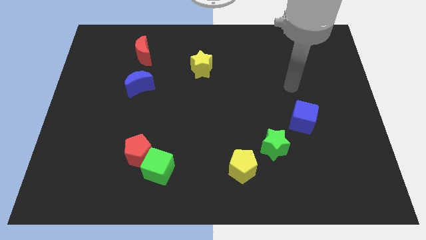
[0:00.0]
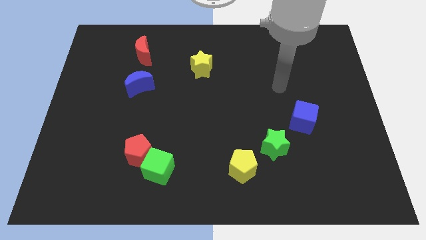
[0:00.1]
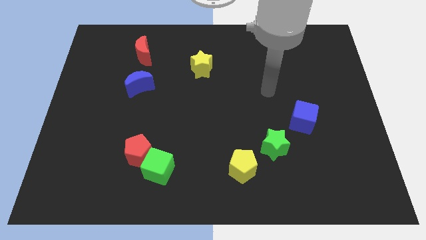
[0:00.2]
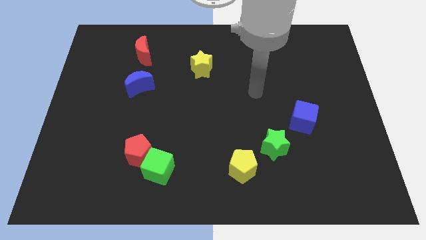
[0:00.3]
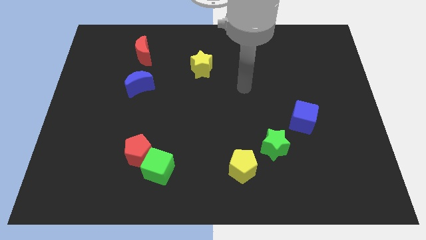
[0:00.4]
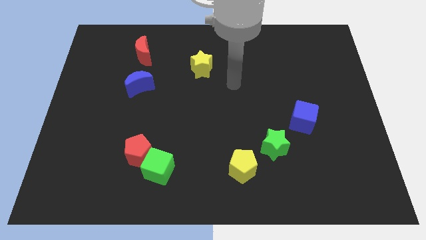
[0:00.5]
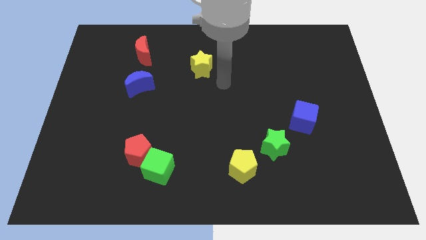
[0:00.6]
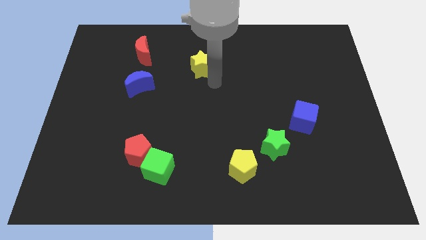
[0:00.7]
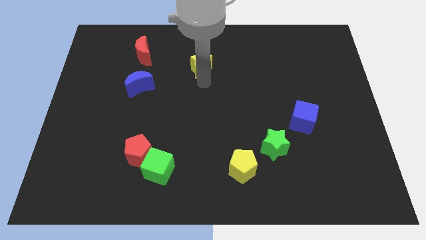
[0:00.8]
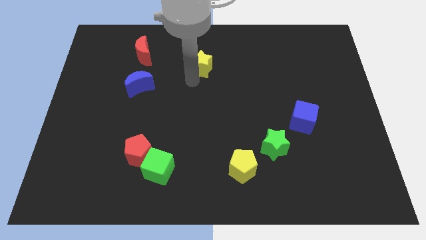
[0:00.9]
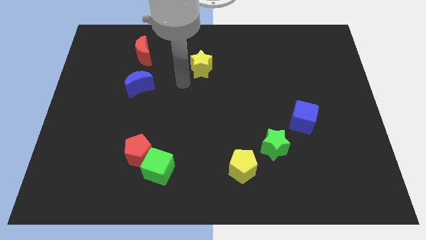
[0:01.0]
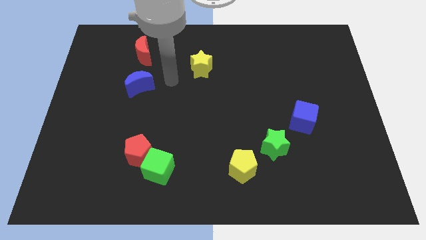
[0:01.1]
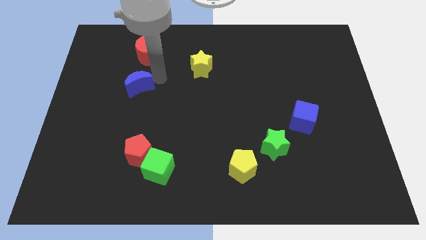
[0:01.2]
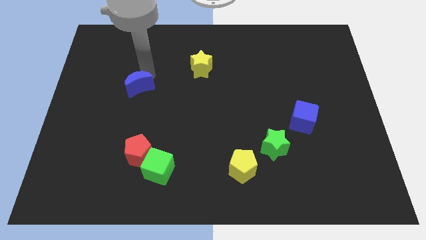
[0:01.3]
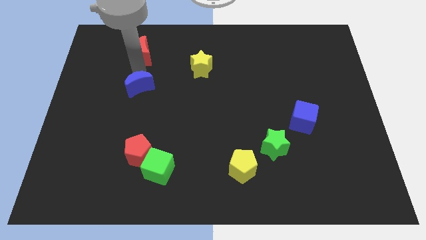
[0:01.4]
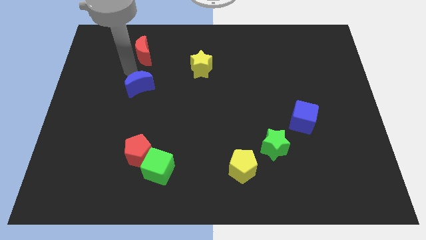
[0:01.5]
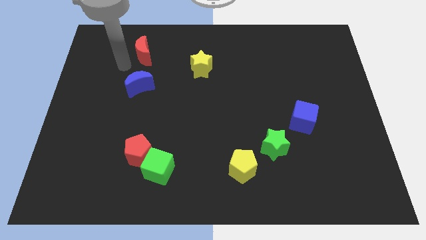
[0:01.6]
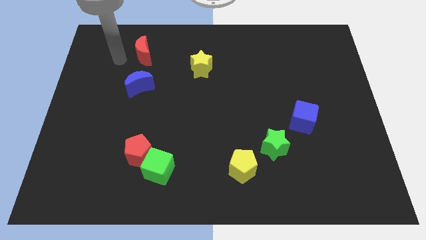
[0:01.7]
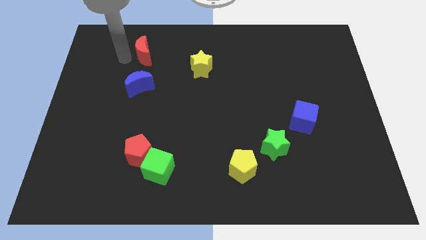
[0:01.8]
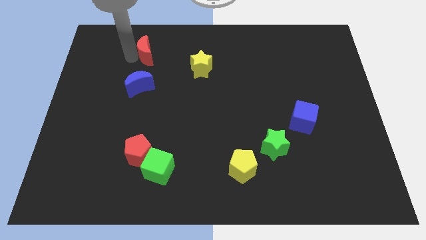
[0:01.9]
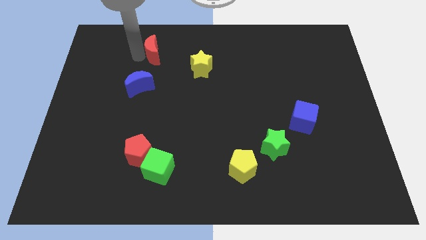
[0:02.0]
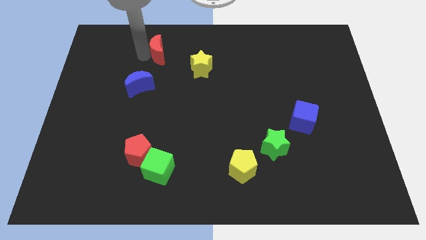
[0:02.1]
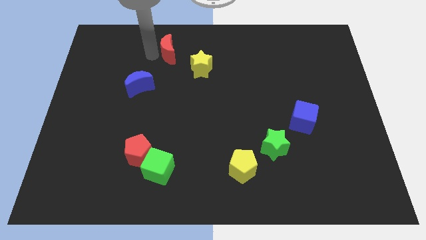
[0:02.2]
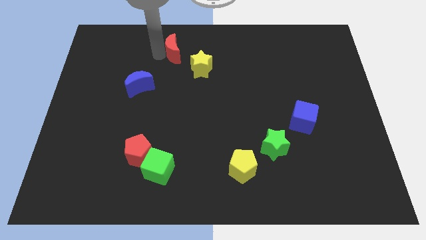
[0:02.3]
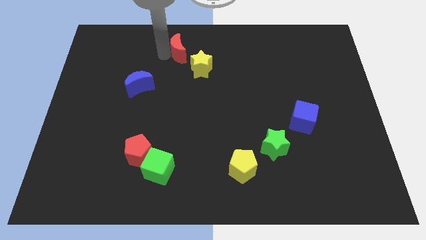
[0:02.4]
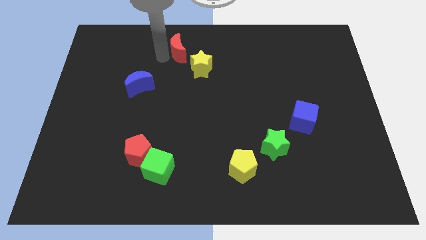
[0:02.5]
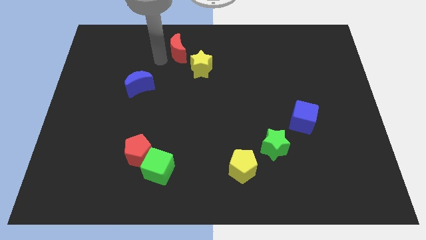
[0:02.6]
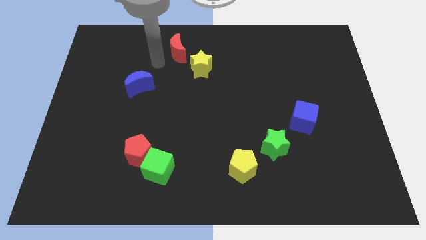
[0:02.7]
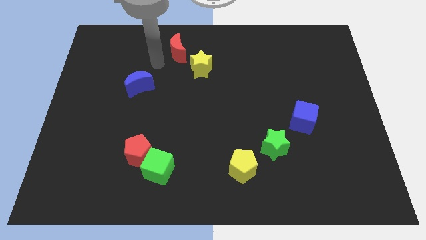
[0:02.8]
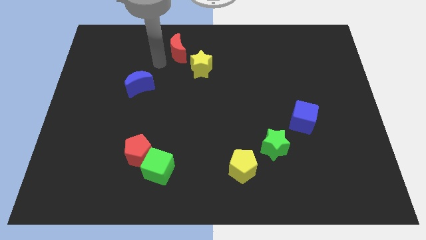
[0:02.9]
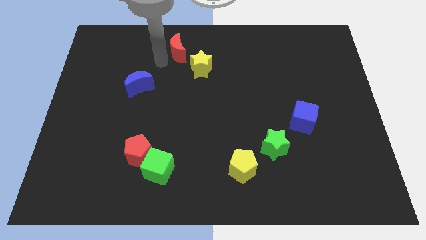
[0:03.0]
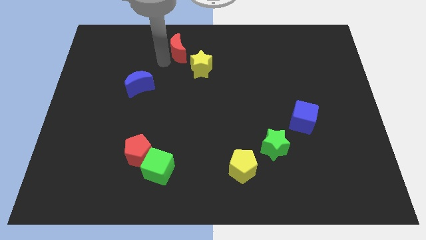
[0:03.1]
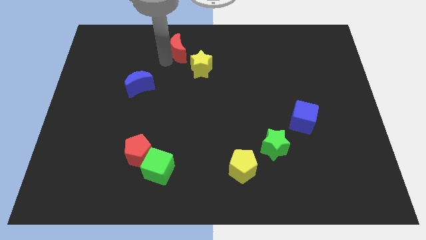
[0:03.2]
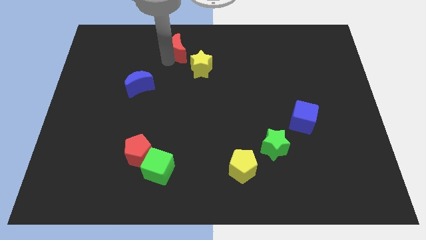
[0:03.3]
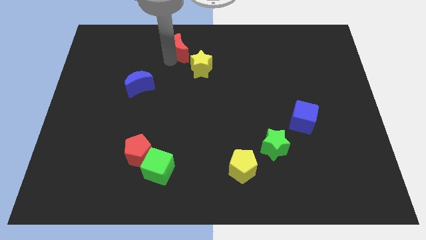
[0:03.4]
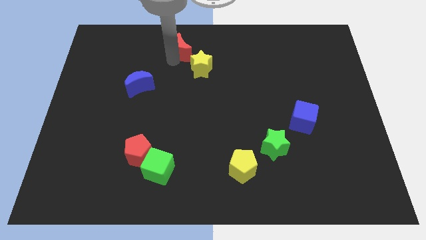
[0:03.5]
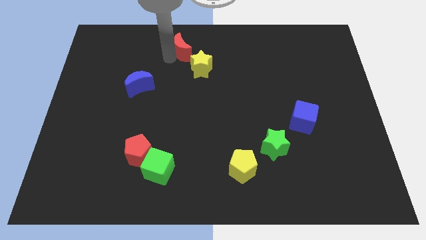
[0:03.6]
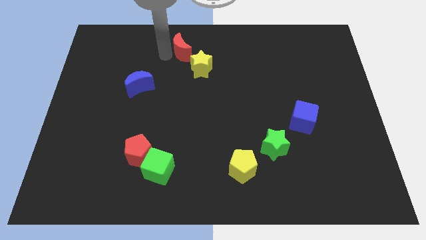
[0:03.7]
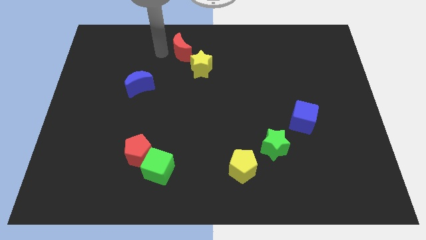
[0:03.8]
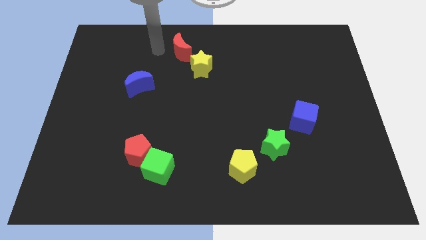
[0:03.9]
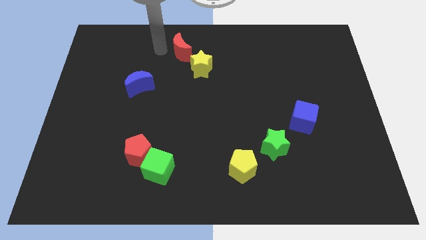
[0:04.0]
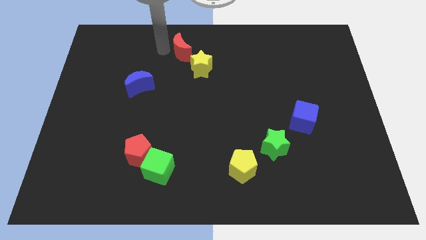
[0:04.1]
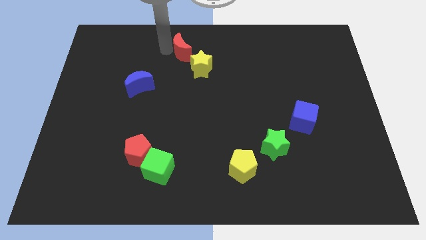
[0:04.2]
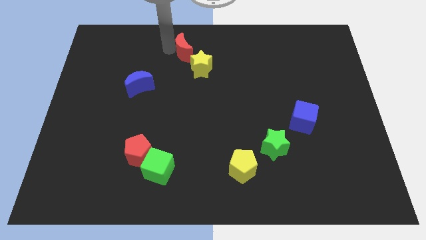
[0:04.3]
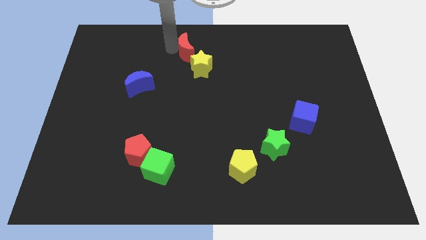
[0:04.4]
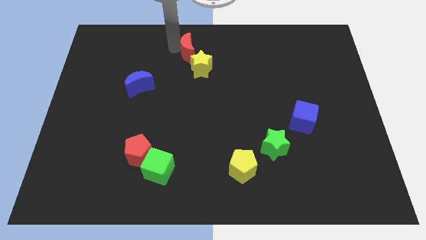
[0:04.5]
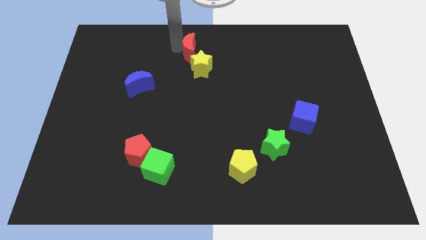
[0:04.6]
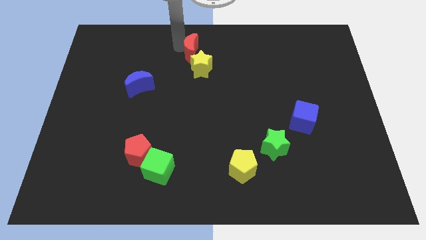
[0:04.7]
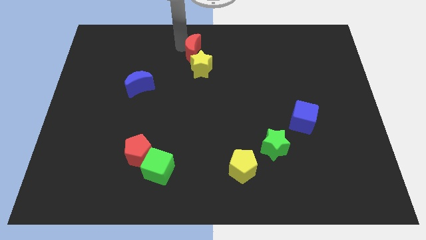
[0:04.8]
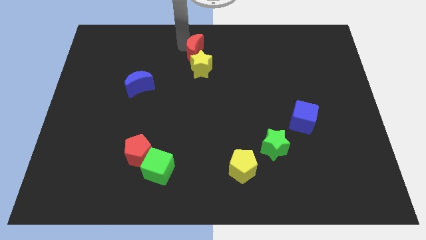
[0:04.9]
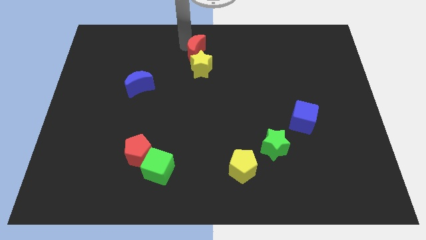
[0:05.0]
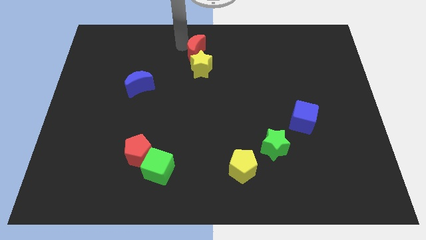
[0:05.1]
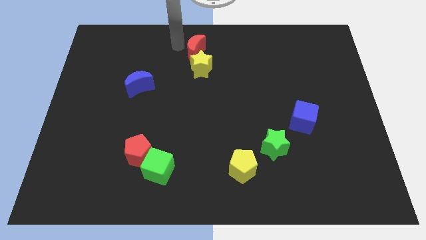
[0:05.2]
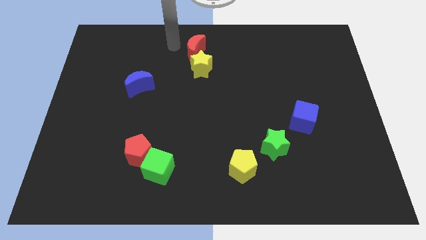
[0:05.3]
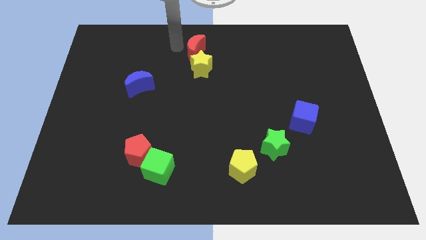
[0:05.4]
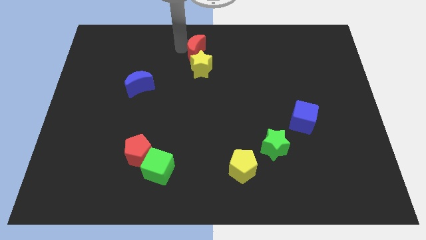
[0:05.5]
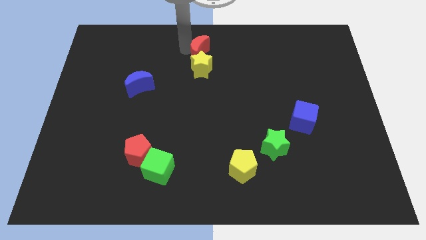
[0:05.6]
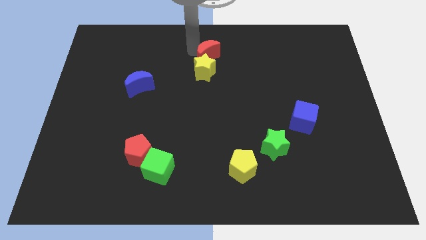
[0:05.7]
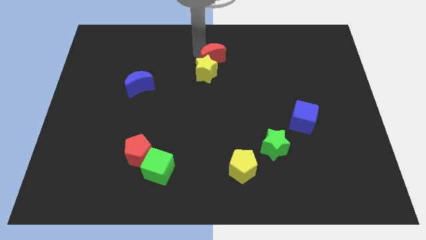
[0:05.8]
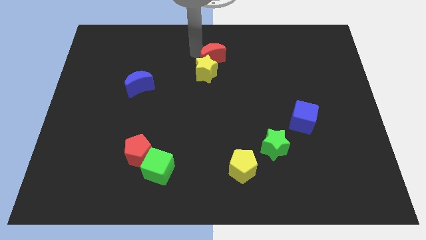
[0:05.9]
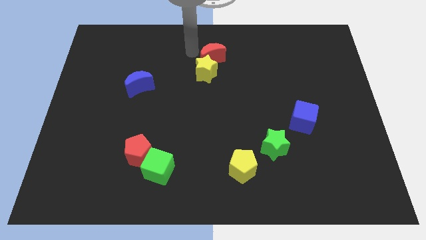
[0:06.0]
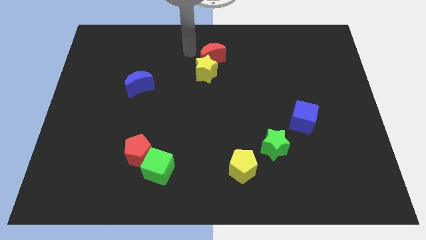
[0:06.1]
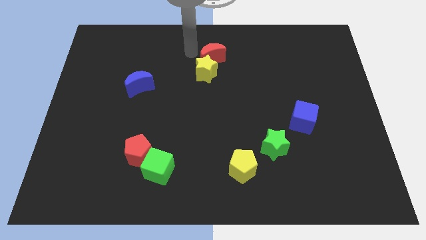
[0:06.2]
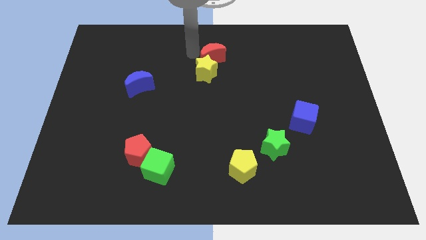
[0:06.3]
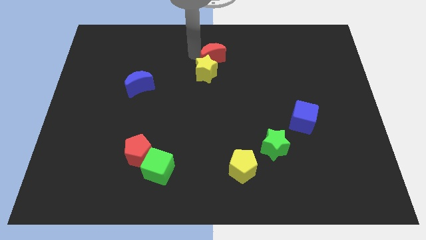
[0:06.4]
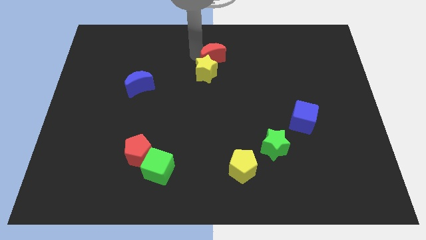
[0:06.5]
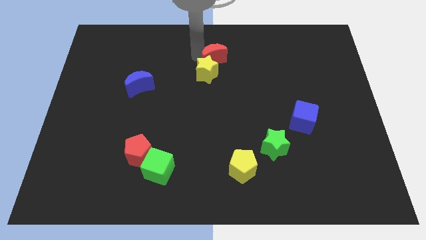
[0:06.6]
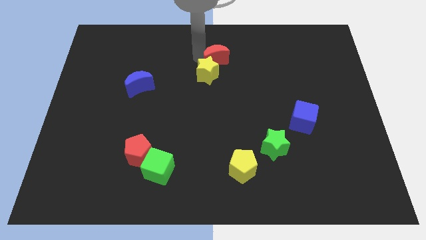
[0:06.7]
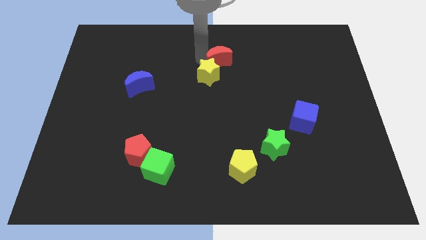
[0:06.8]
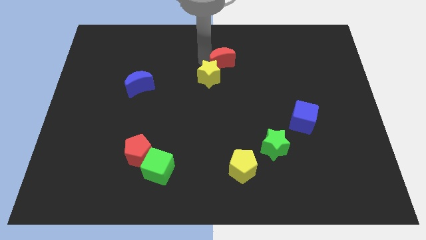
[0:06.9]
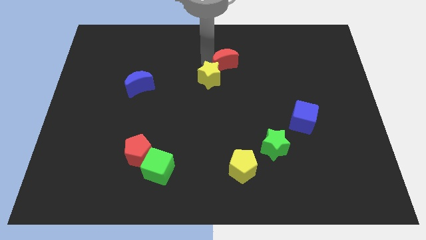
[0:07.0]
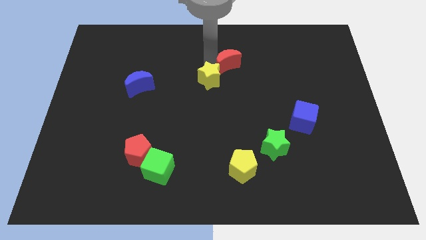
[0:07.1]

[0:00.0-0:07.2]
push the red moon to the right of the yellow star
